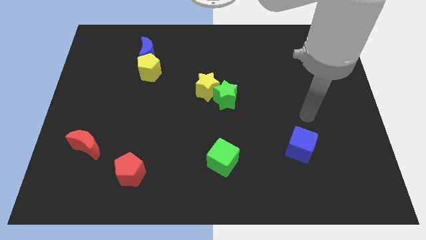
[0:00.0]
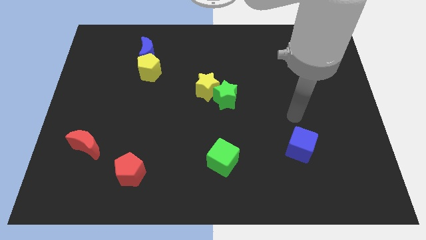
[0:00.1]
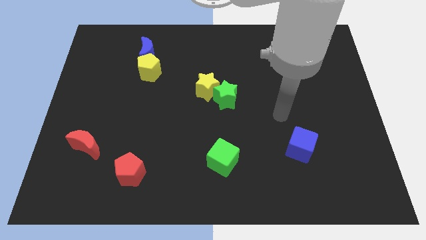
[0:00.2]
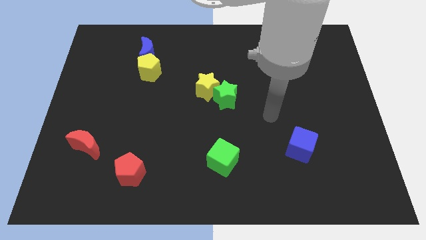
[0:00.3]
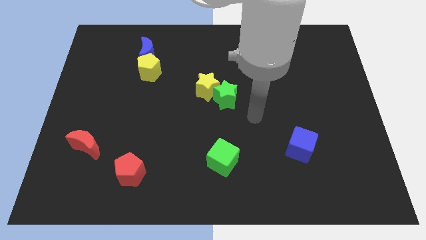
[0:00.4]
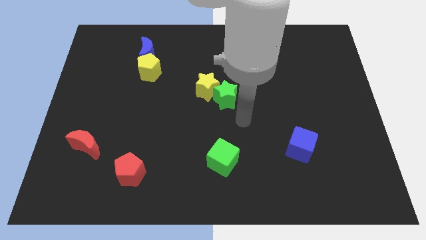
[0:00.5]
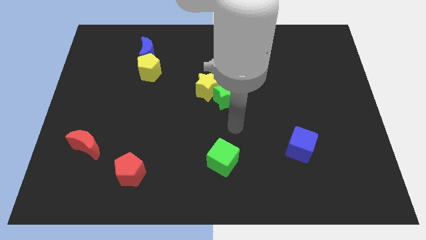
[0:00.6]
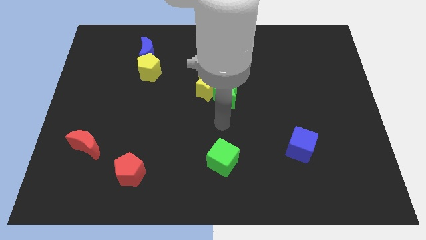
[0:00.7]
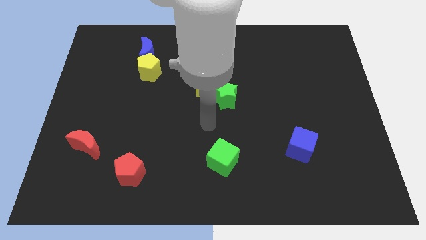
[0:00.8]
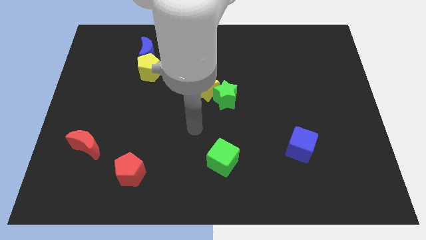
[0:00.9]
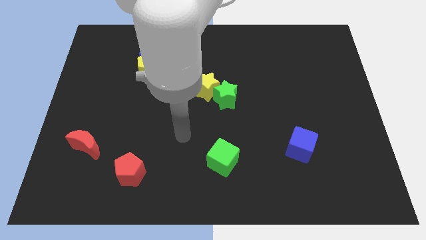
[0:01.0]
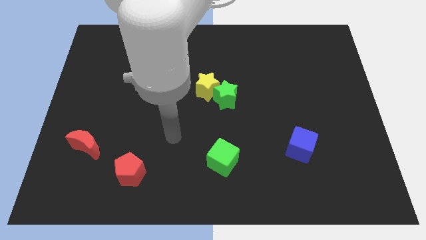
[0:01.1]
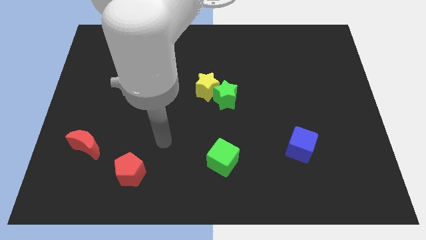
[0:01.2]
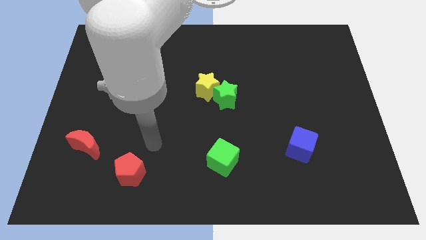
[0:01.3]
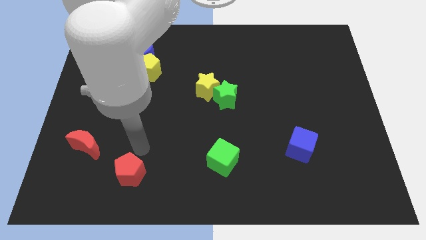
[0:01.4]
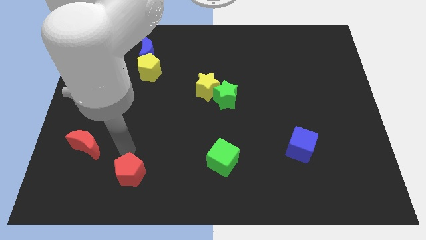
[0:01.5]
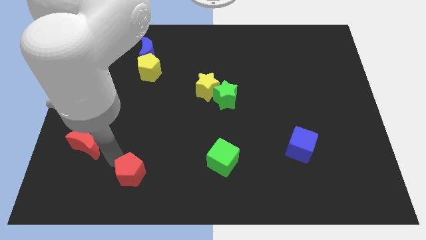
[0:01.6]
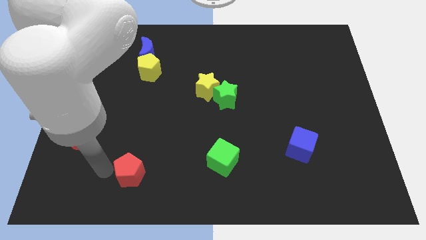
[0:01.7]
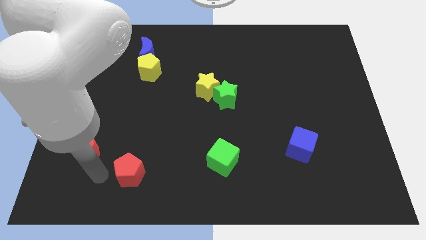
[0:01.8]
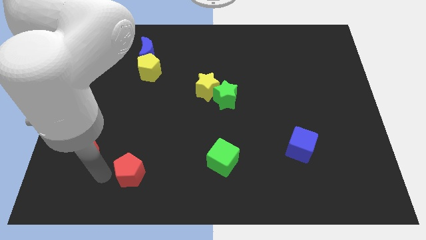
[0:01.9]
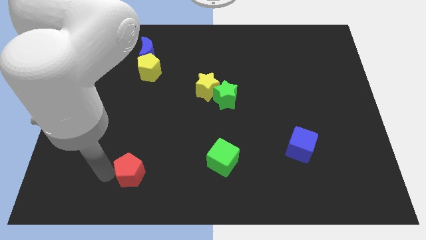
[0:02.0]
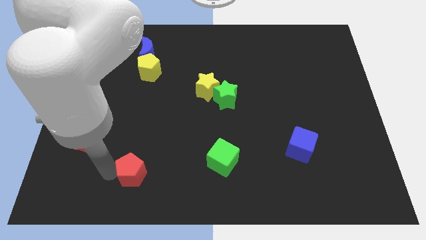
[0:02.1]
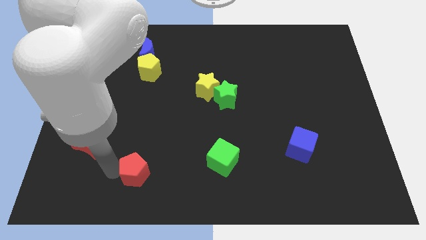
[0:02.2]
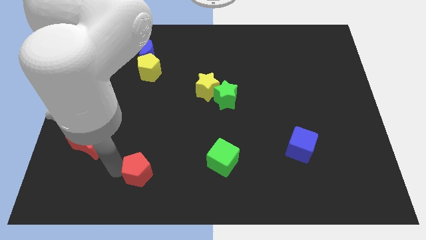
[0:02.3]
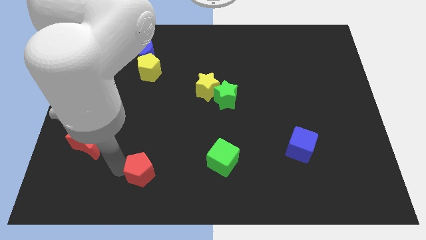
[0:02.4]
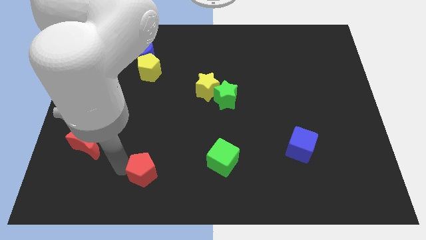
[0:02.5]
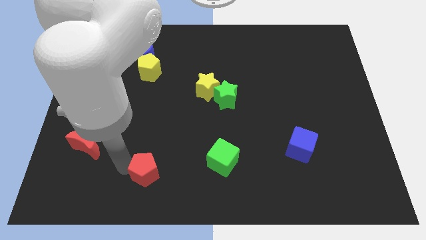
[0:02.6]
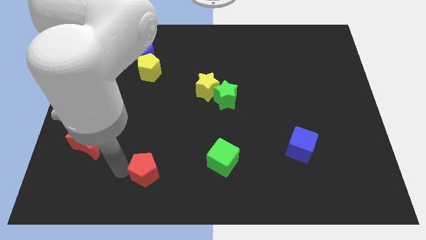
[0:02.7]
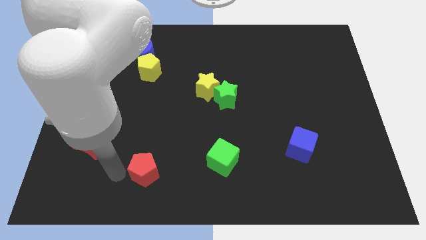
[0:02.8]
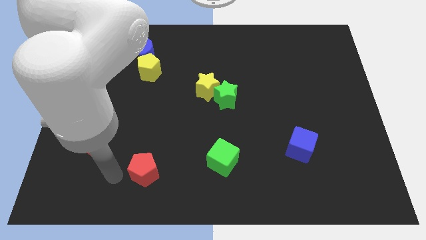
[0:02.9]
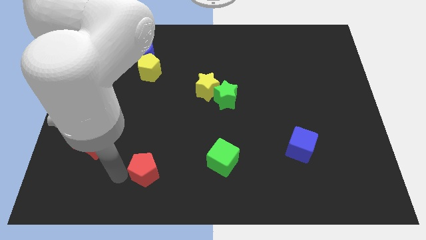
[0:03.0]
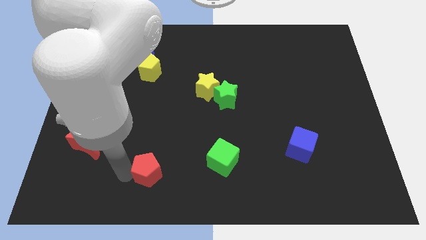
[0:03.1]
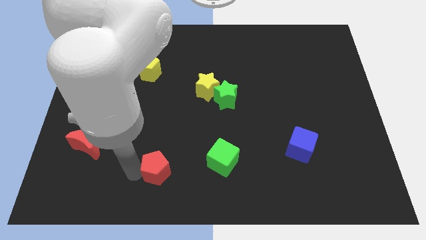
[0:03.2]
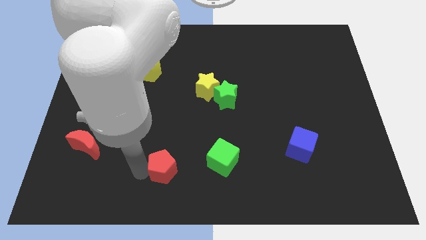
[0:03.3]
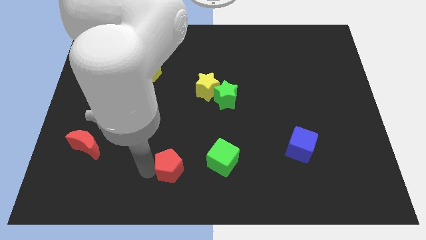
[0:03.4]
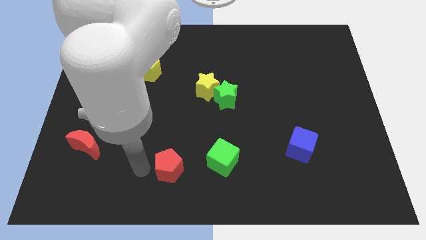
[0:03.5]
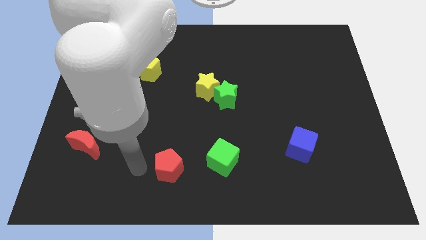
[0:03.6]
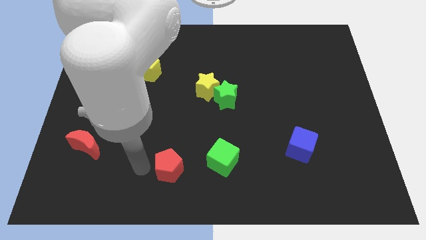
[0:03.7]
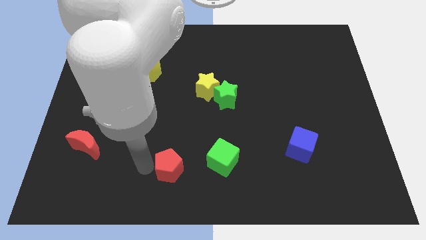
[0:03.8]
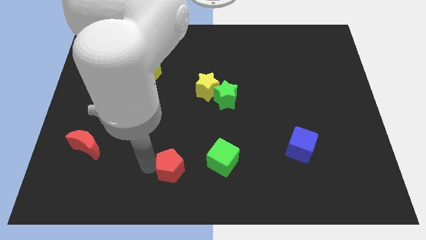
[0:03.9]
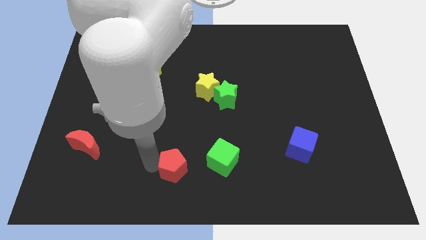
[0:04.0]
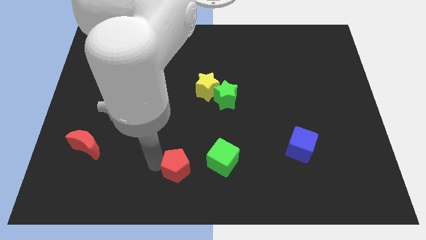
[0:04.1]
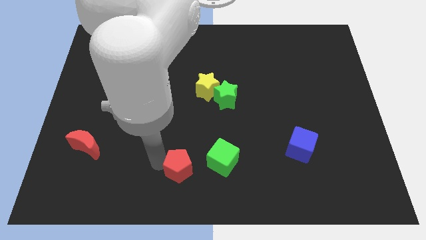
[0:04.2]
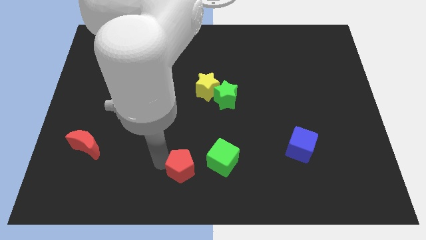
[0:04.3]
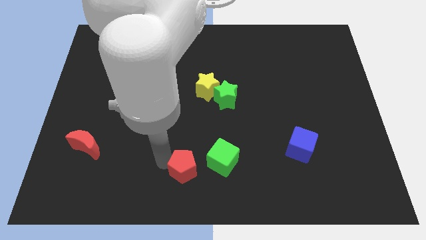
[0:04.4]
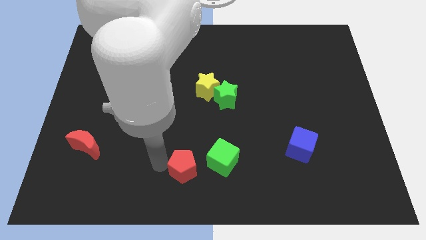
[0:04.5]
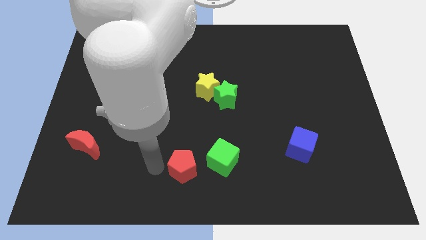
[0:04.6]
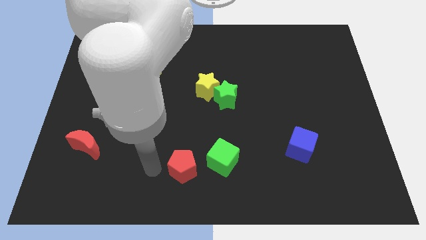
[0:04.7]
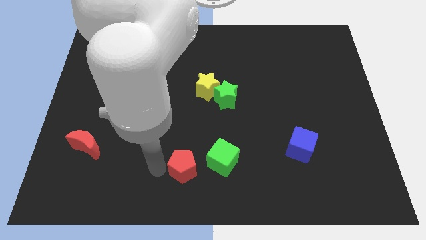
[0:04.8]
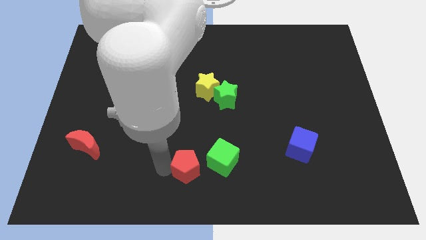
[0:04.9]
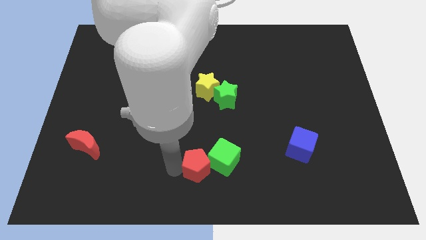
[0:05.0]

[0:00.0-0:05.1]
slide the red pentagon close to the green cube

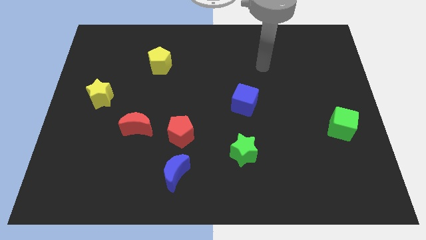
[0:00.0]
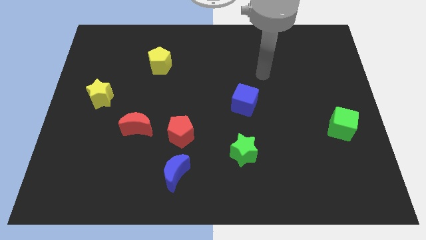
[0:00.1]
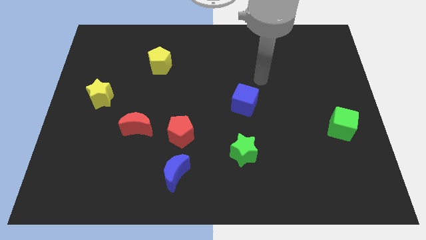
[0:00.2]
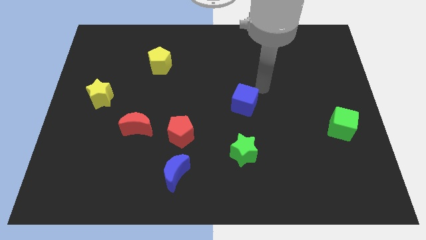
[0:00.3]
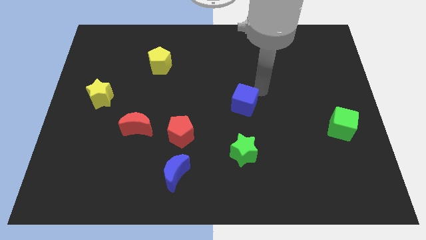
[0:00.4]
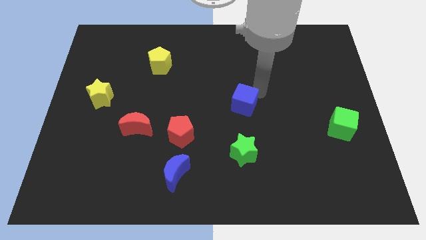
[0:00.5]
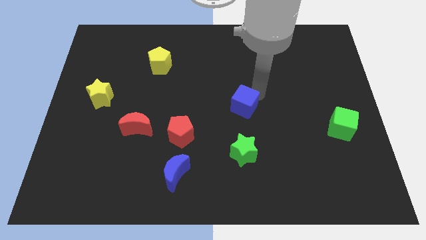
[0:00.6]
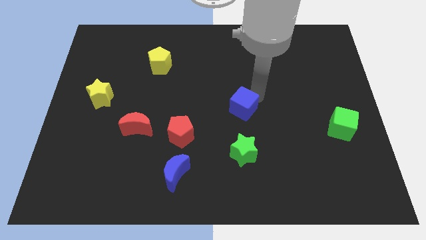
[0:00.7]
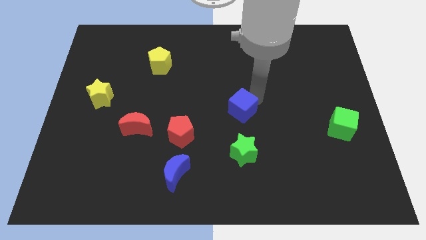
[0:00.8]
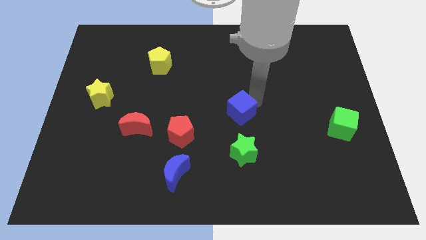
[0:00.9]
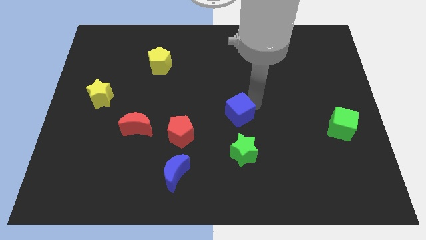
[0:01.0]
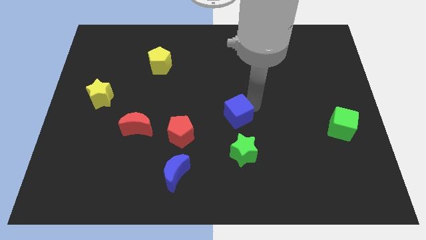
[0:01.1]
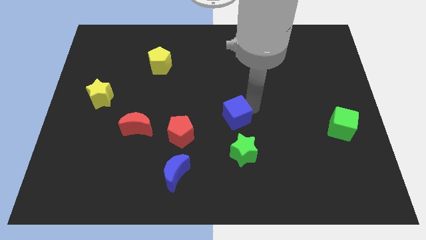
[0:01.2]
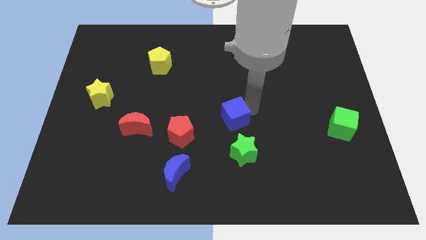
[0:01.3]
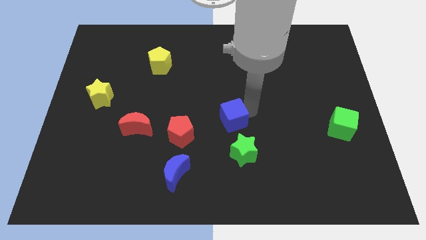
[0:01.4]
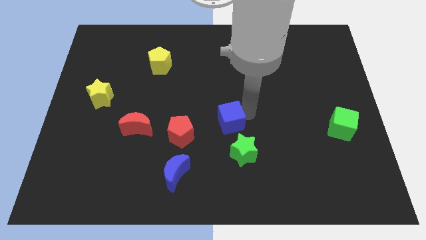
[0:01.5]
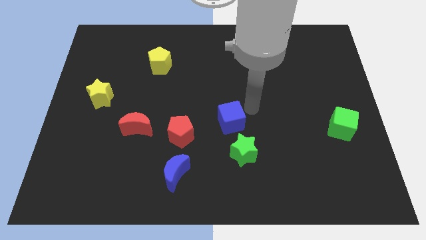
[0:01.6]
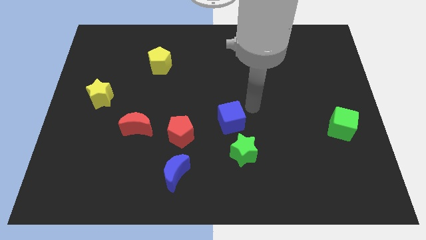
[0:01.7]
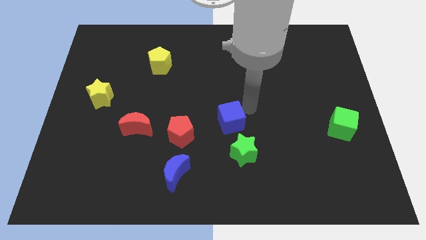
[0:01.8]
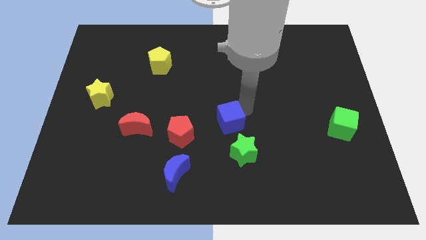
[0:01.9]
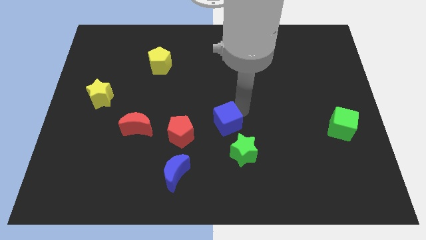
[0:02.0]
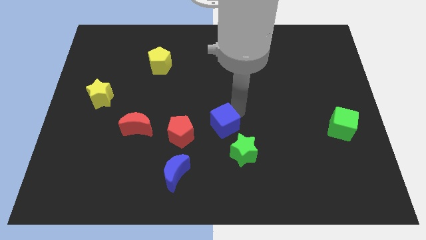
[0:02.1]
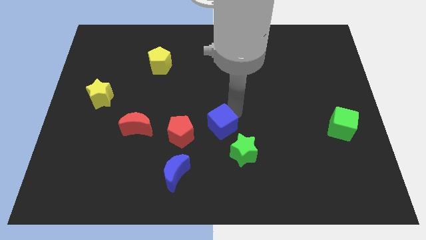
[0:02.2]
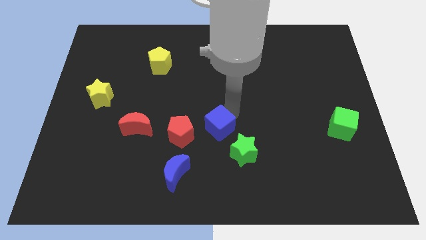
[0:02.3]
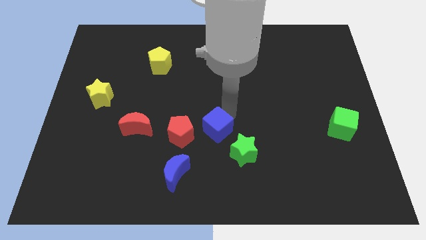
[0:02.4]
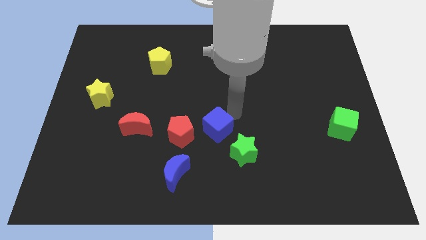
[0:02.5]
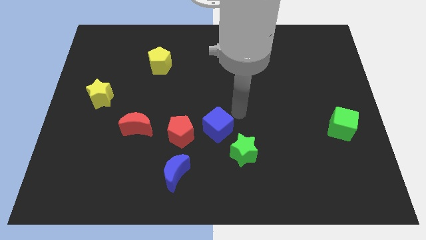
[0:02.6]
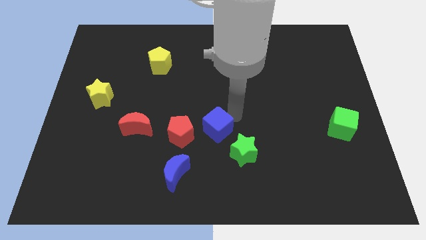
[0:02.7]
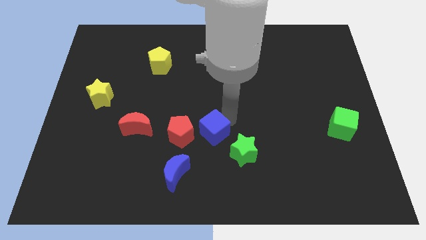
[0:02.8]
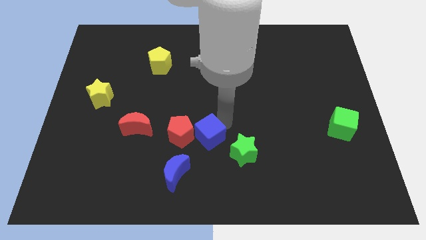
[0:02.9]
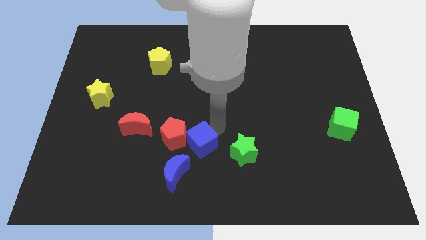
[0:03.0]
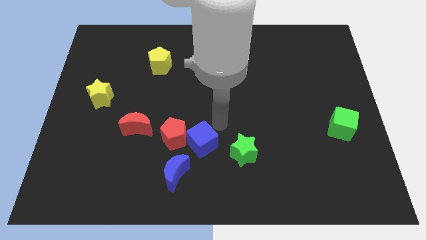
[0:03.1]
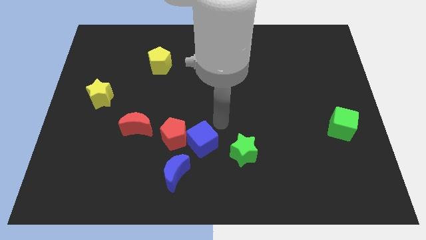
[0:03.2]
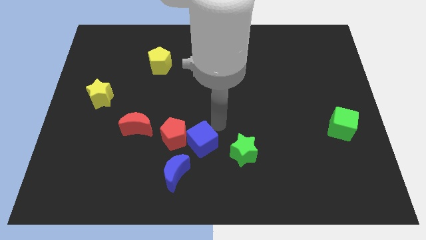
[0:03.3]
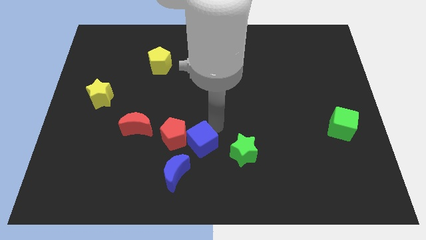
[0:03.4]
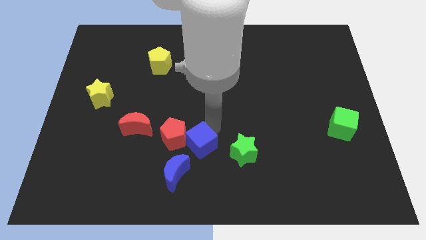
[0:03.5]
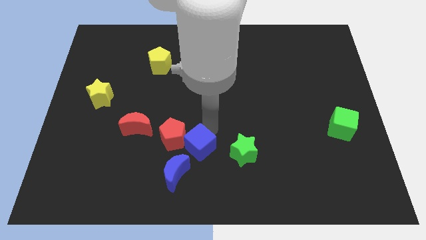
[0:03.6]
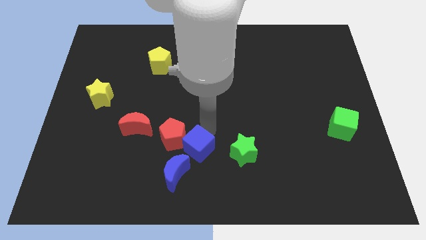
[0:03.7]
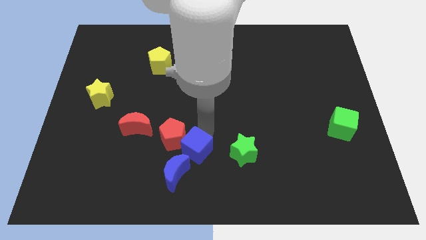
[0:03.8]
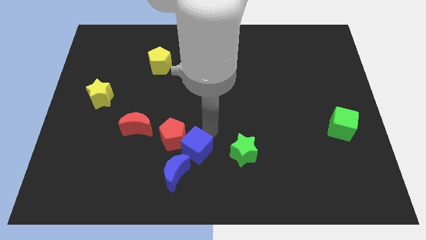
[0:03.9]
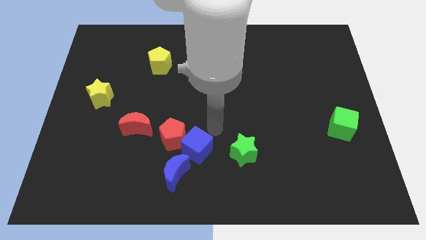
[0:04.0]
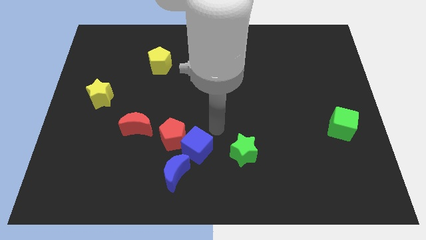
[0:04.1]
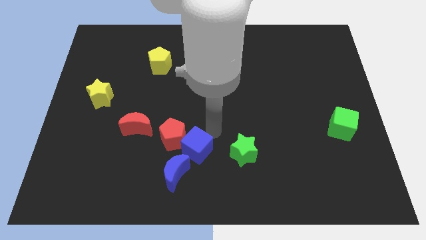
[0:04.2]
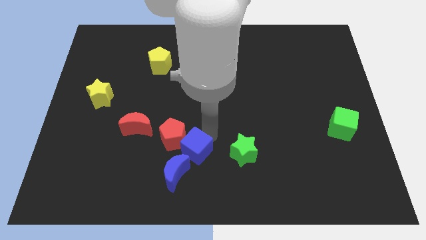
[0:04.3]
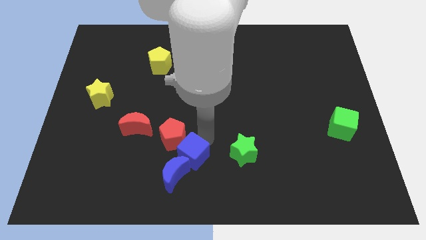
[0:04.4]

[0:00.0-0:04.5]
put the blue cube towards the blue moon
